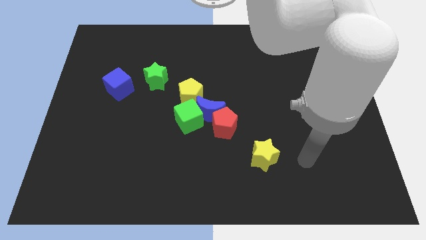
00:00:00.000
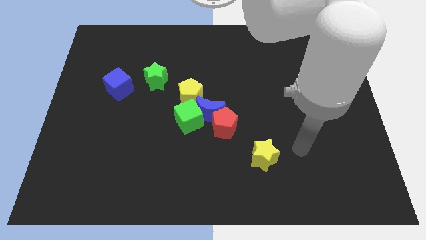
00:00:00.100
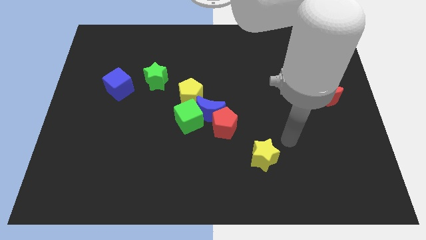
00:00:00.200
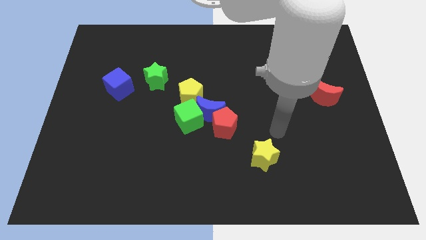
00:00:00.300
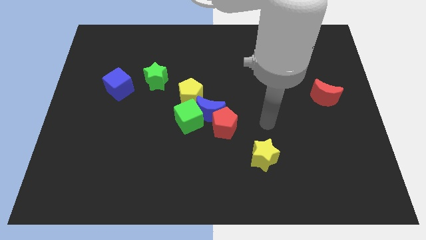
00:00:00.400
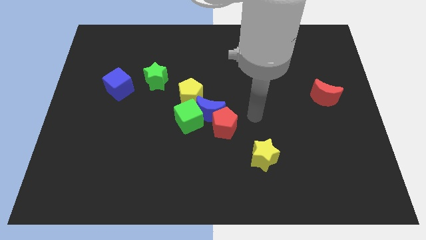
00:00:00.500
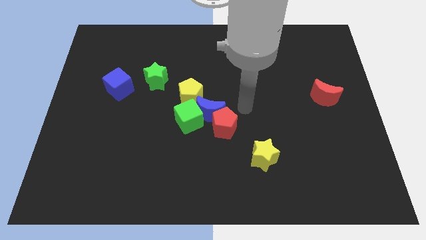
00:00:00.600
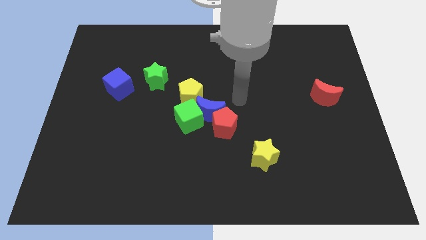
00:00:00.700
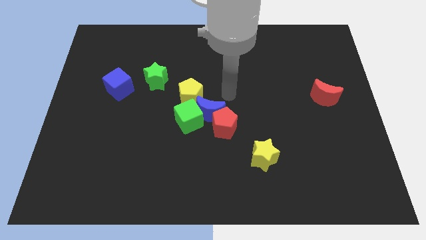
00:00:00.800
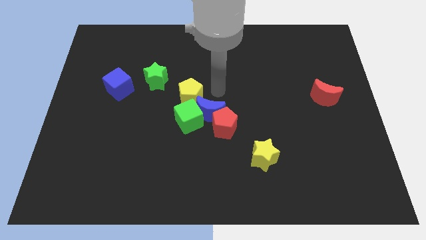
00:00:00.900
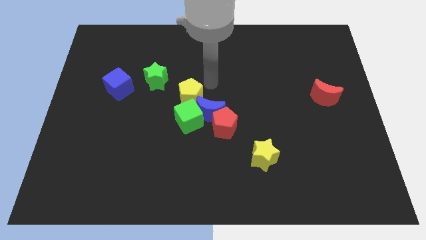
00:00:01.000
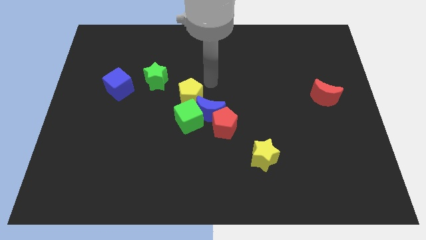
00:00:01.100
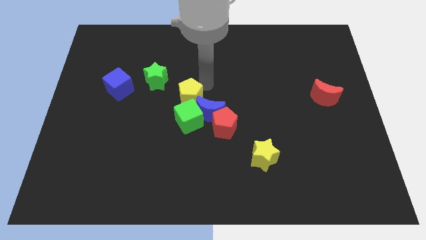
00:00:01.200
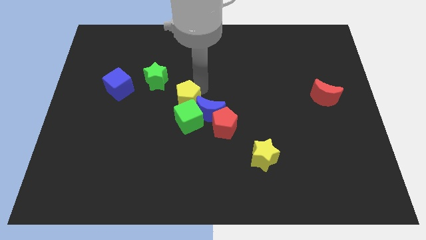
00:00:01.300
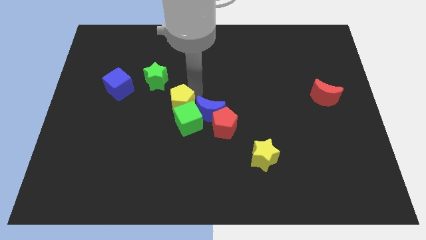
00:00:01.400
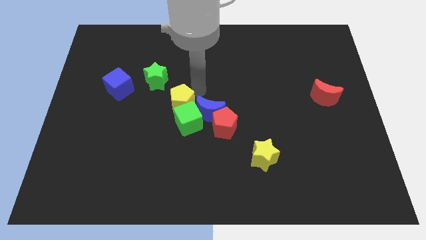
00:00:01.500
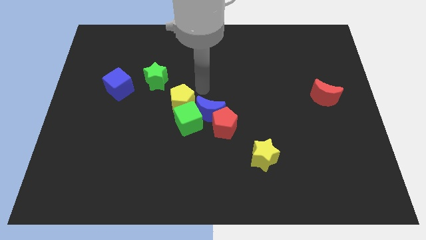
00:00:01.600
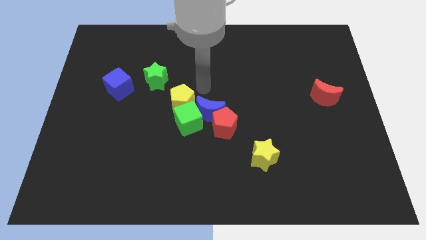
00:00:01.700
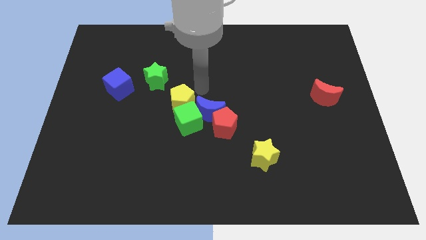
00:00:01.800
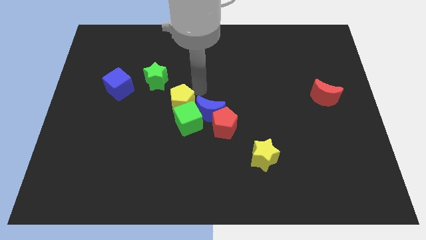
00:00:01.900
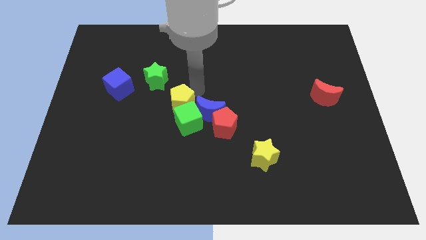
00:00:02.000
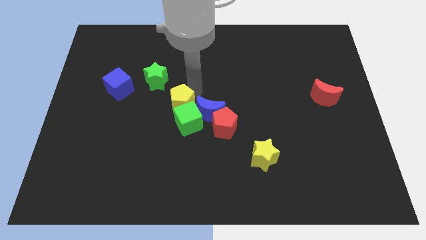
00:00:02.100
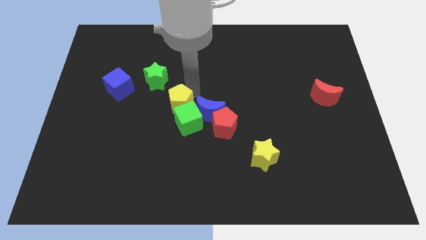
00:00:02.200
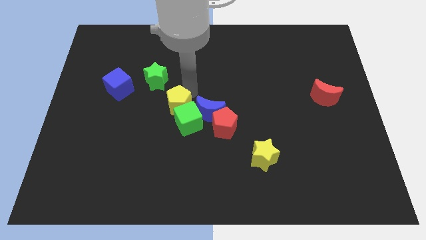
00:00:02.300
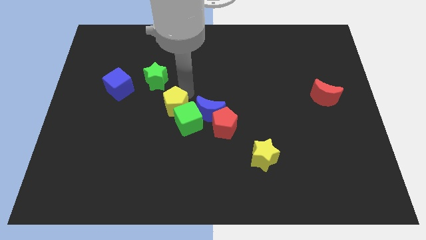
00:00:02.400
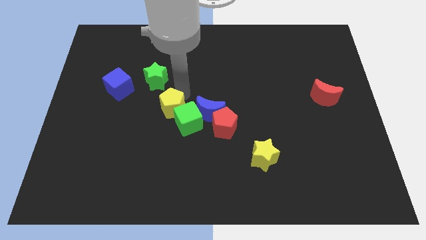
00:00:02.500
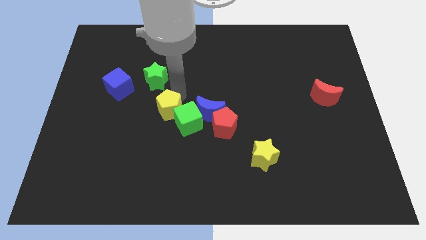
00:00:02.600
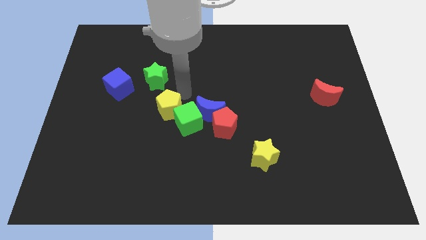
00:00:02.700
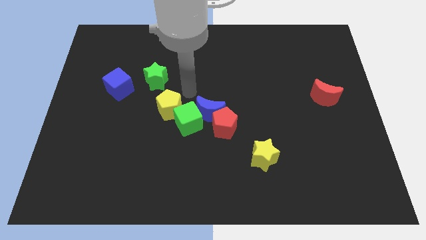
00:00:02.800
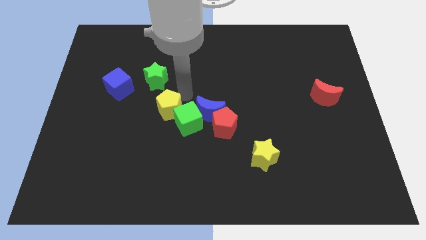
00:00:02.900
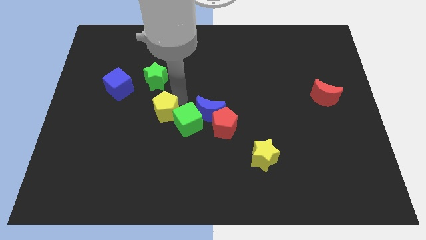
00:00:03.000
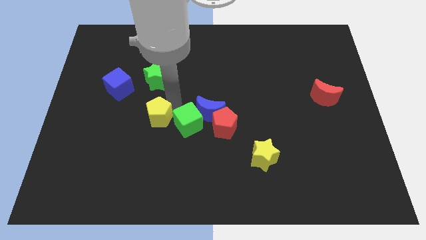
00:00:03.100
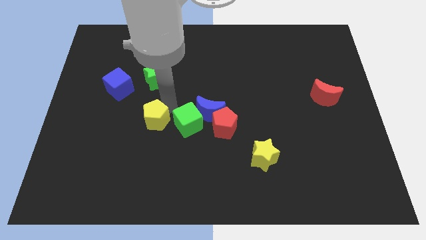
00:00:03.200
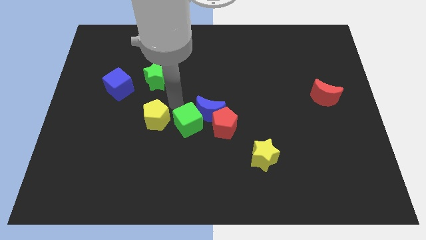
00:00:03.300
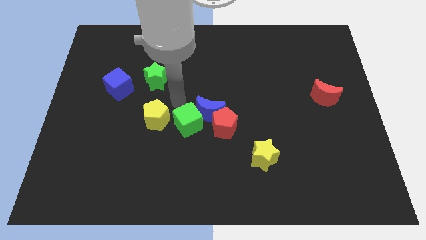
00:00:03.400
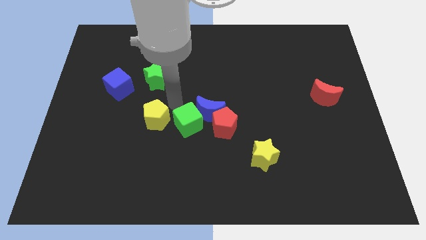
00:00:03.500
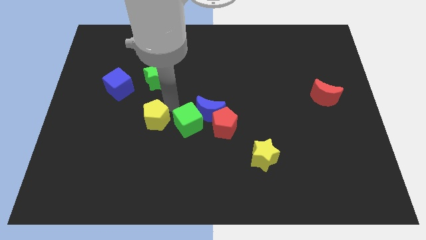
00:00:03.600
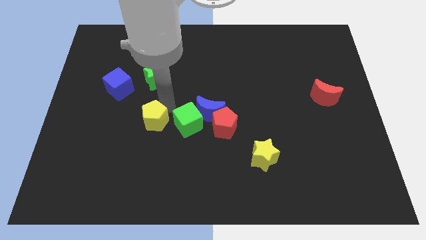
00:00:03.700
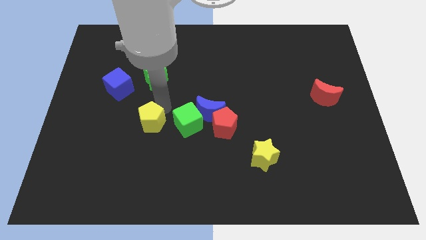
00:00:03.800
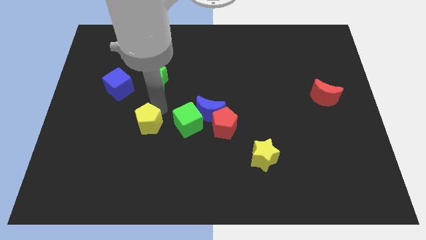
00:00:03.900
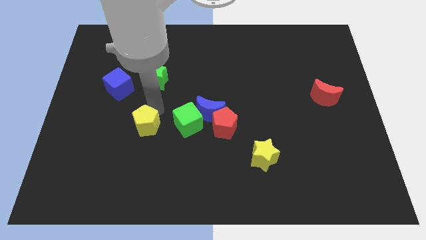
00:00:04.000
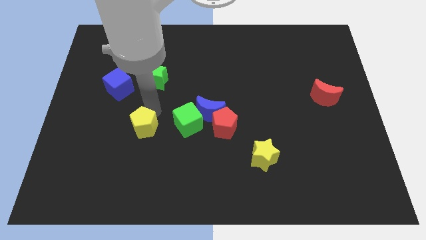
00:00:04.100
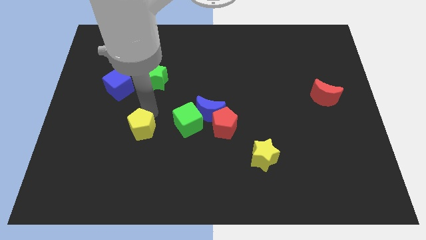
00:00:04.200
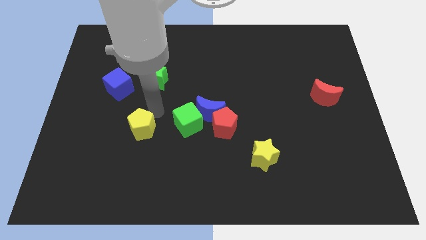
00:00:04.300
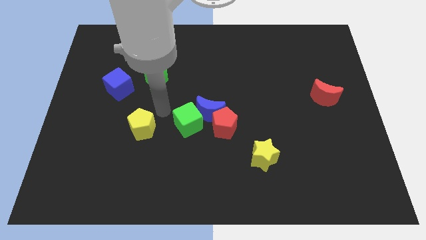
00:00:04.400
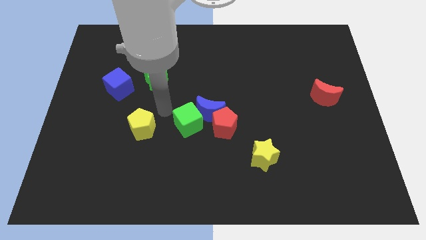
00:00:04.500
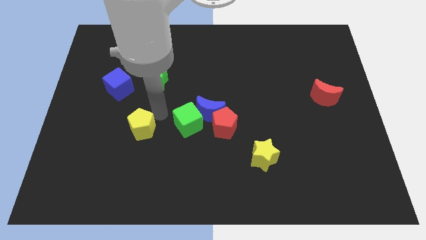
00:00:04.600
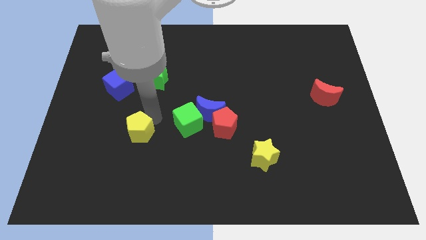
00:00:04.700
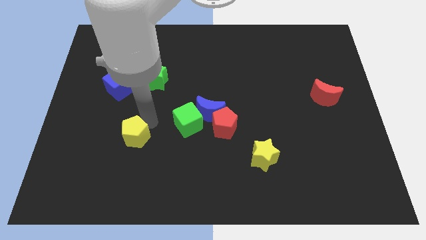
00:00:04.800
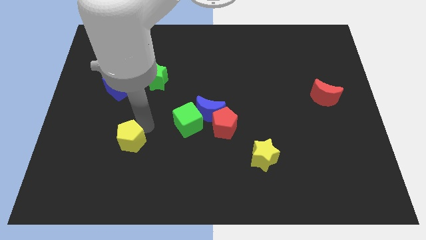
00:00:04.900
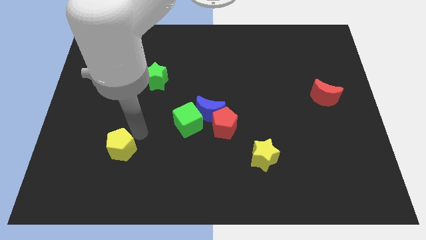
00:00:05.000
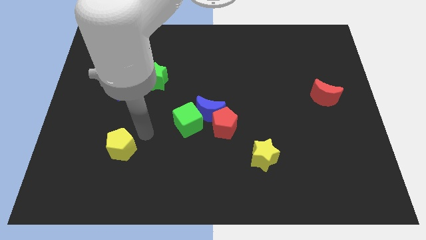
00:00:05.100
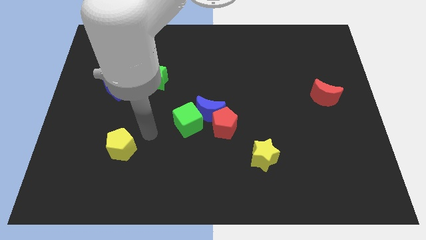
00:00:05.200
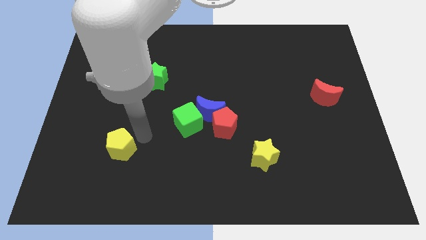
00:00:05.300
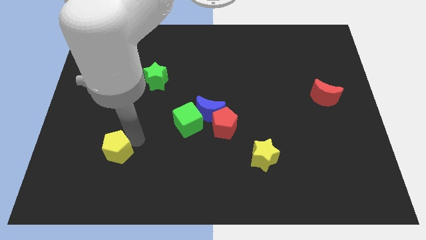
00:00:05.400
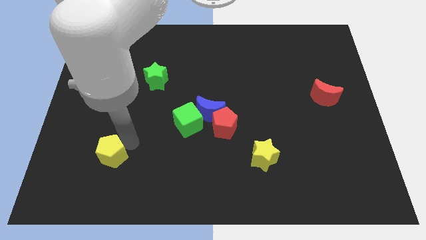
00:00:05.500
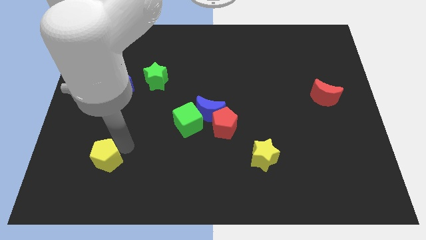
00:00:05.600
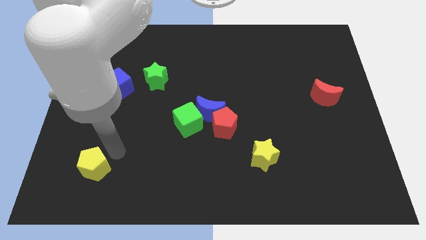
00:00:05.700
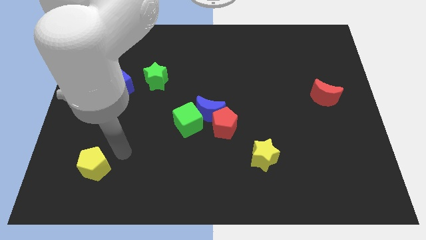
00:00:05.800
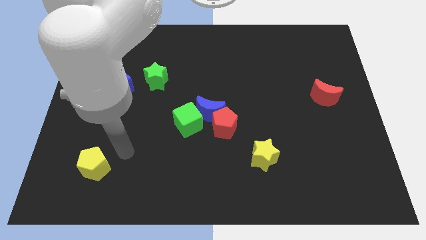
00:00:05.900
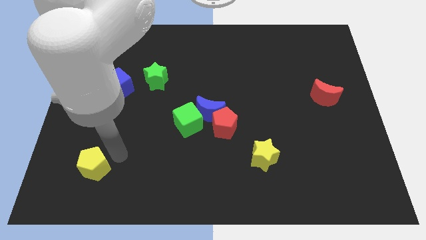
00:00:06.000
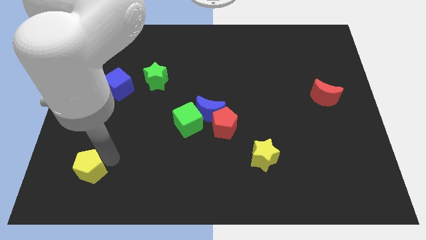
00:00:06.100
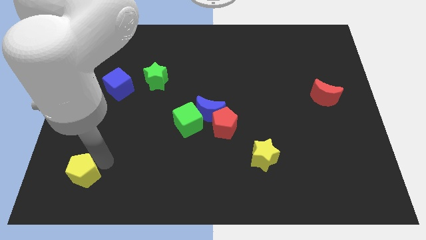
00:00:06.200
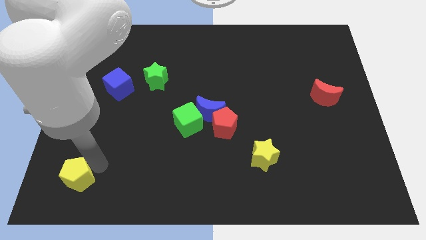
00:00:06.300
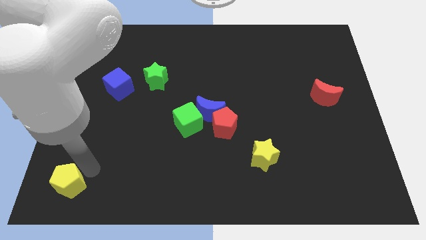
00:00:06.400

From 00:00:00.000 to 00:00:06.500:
slide the yellow pentagon to the lower left corner
